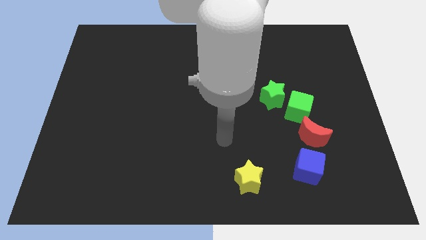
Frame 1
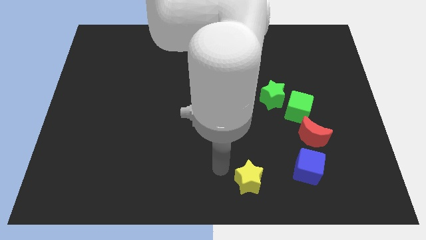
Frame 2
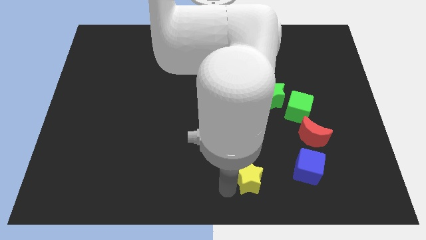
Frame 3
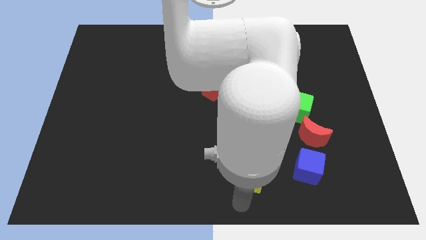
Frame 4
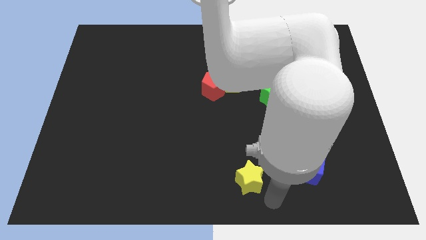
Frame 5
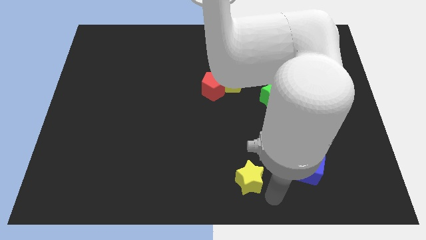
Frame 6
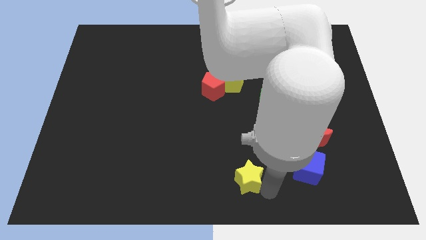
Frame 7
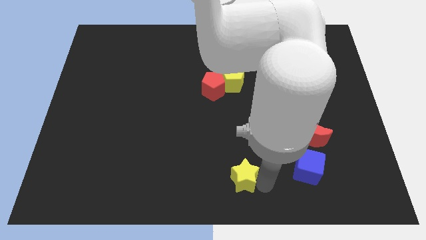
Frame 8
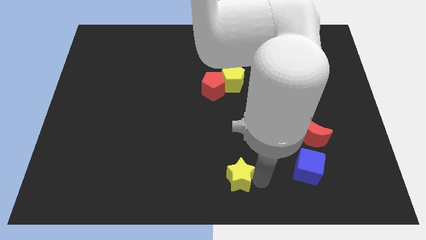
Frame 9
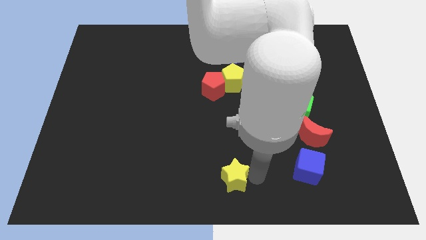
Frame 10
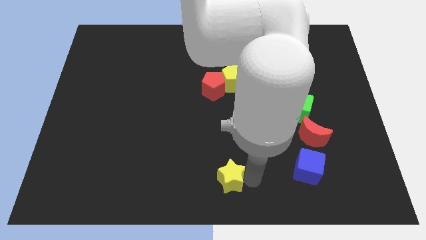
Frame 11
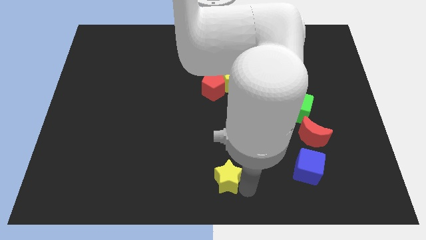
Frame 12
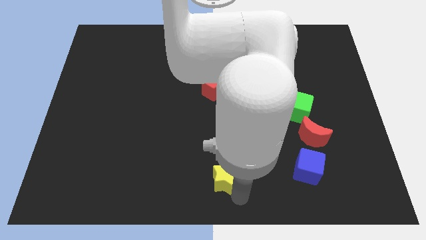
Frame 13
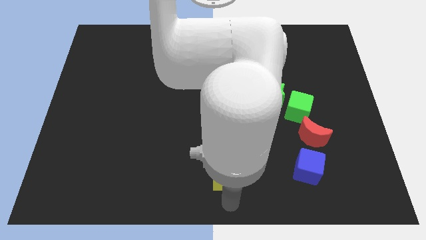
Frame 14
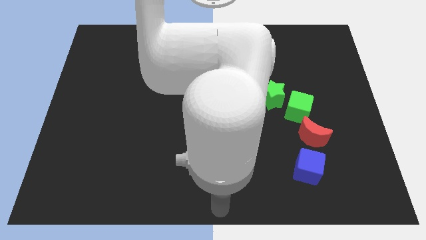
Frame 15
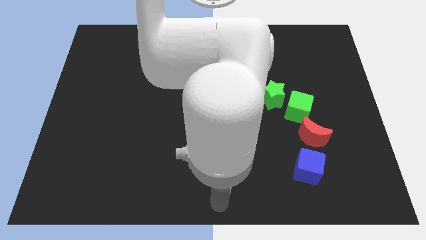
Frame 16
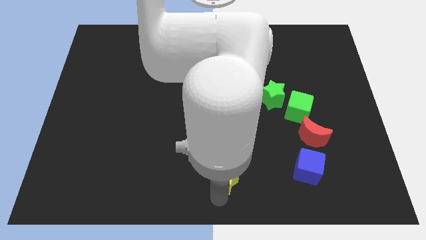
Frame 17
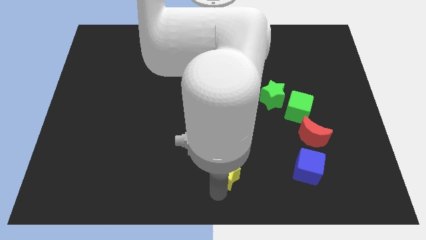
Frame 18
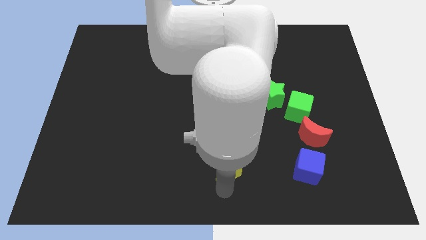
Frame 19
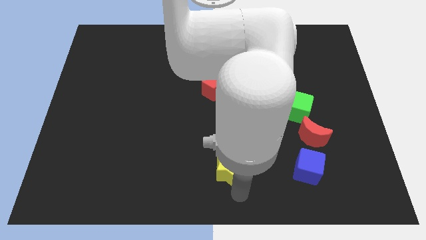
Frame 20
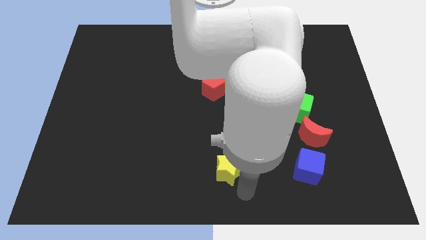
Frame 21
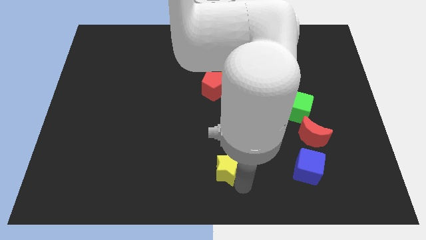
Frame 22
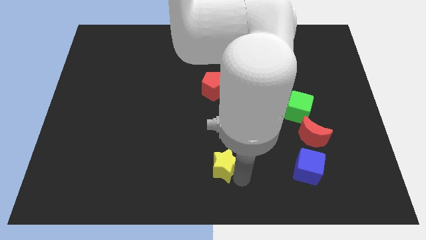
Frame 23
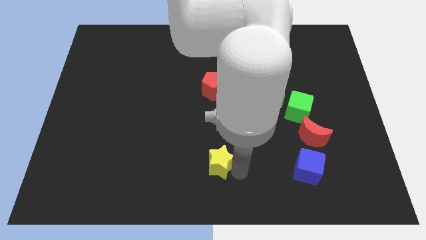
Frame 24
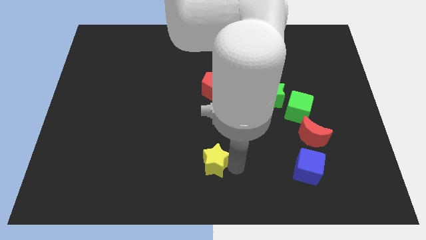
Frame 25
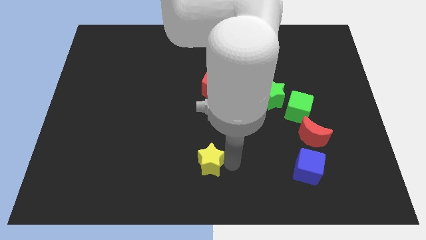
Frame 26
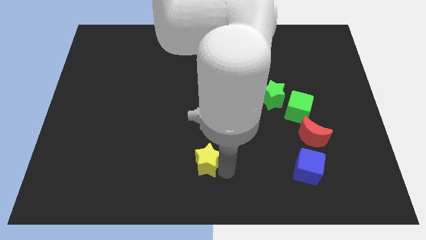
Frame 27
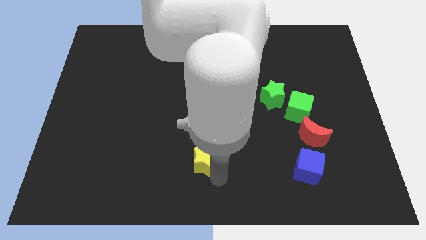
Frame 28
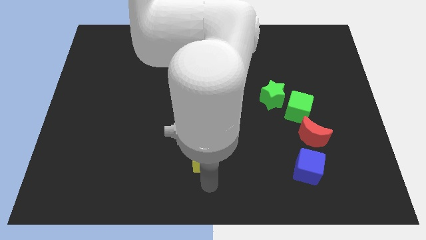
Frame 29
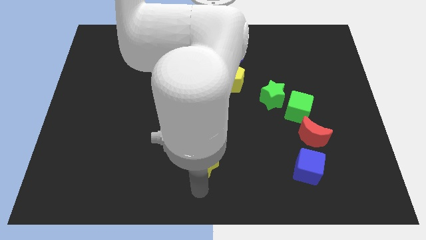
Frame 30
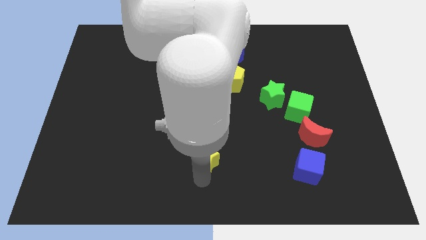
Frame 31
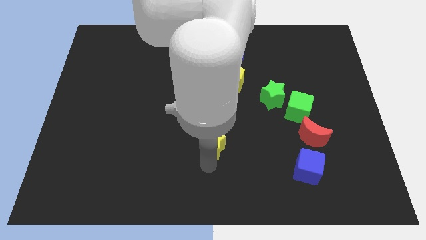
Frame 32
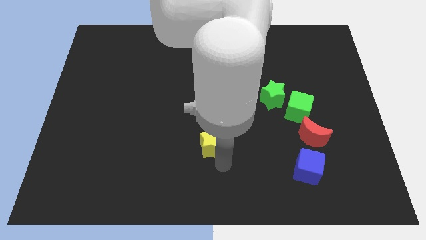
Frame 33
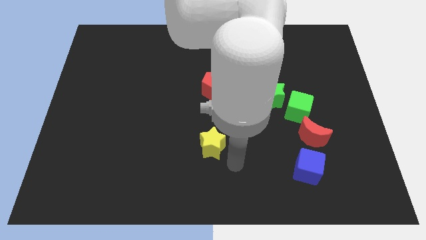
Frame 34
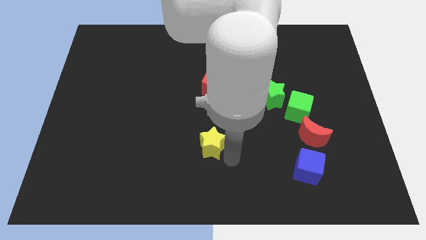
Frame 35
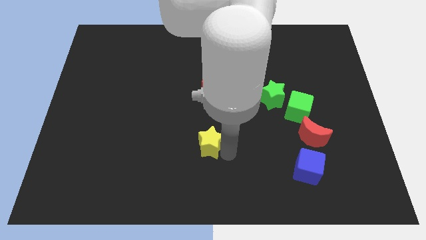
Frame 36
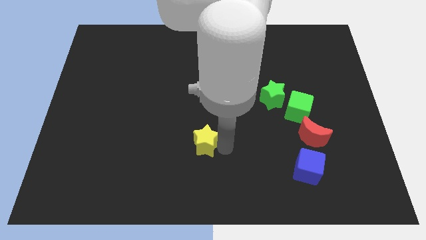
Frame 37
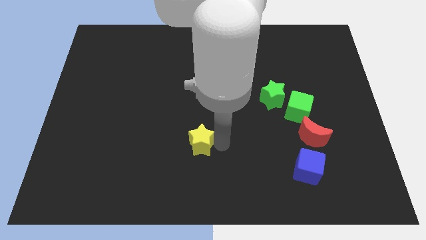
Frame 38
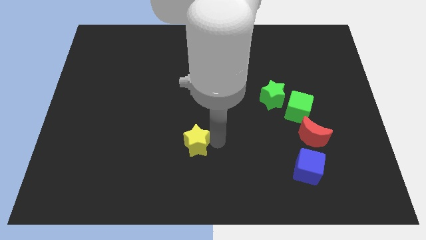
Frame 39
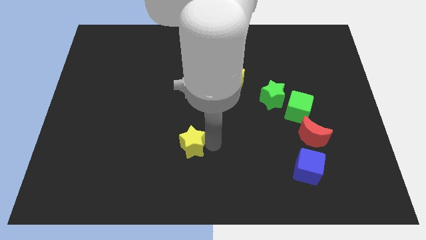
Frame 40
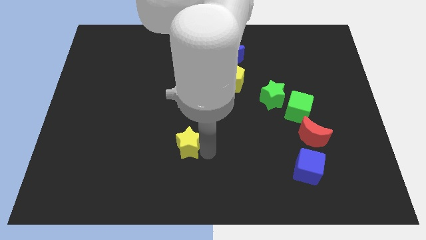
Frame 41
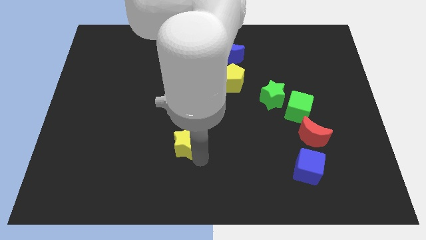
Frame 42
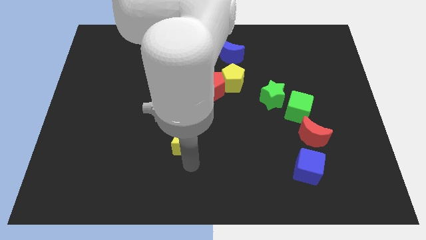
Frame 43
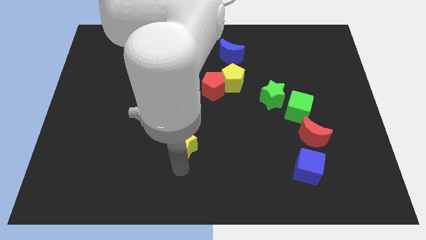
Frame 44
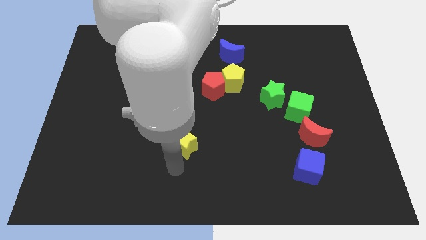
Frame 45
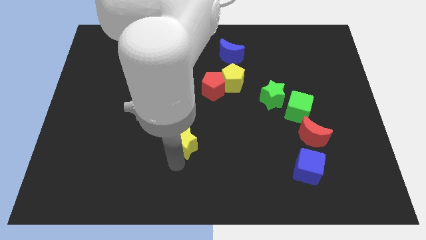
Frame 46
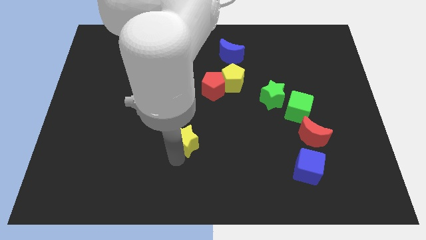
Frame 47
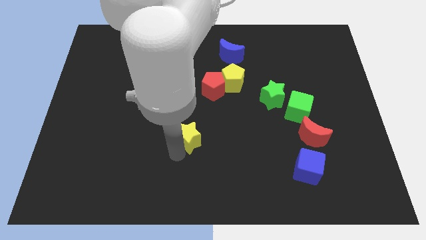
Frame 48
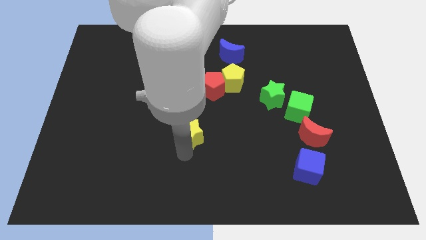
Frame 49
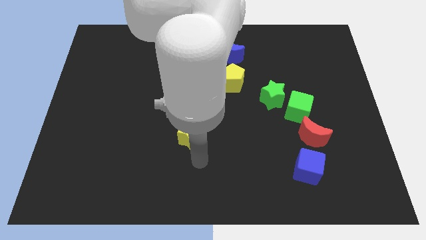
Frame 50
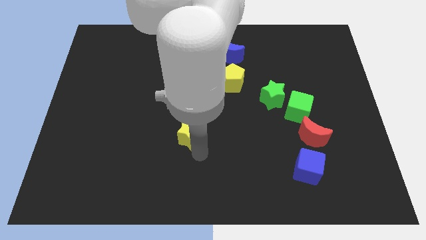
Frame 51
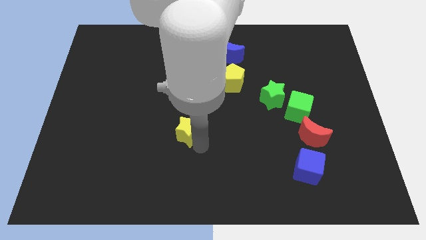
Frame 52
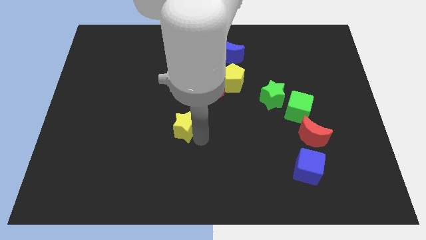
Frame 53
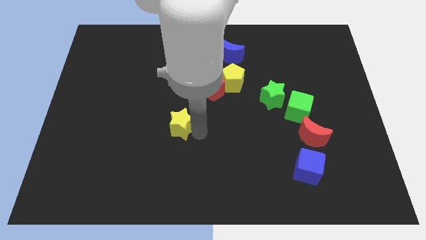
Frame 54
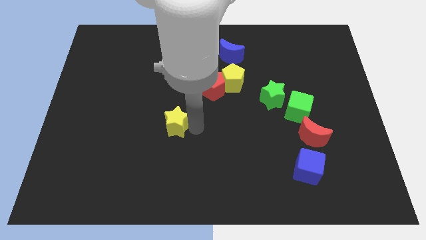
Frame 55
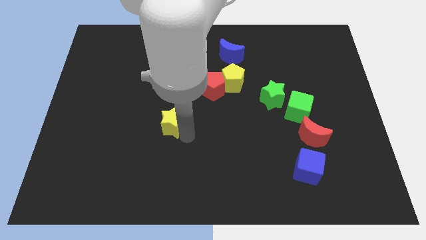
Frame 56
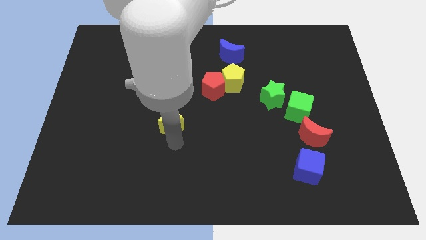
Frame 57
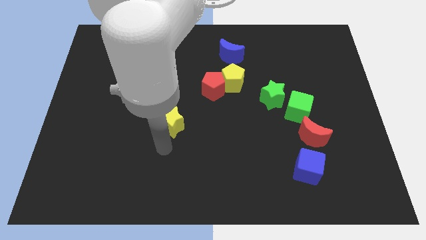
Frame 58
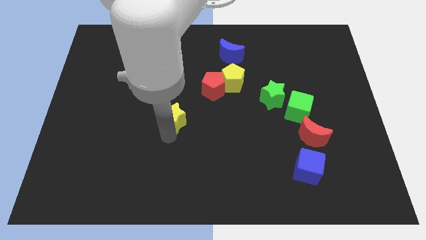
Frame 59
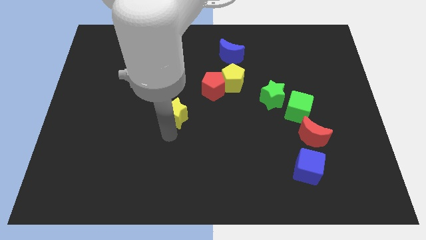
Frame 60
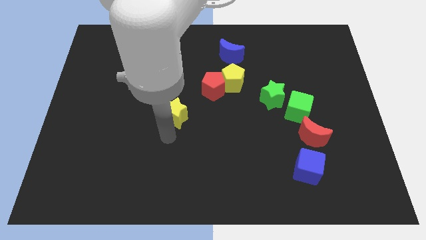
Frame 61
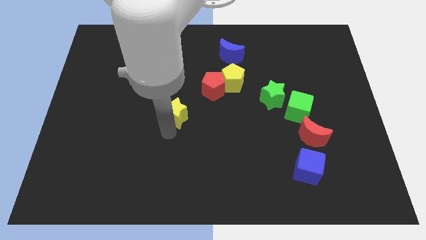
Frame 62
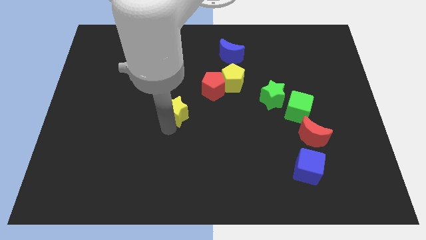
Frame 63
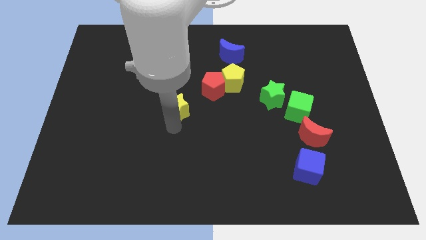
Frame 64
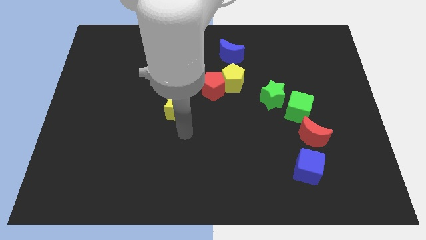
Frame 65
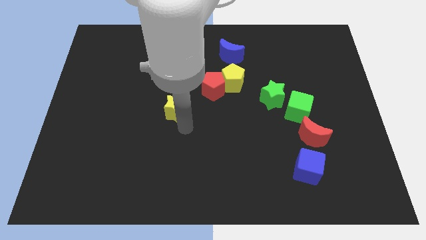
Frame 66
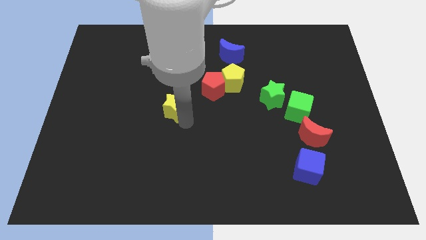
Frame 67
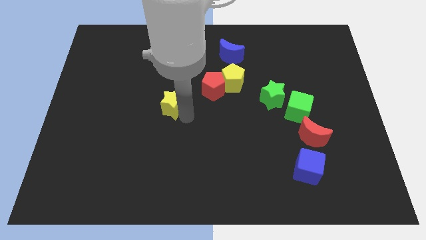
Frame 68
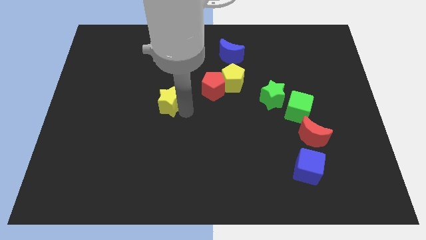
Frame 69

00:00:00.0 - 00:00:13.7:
slide the yellow star just left of the red pentagon

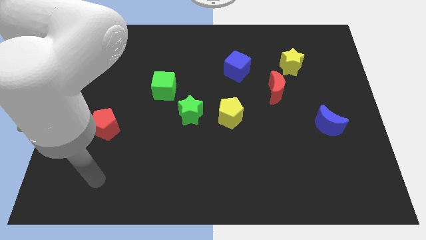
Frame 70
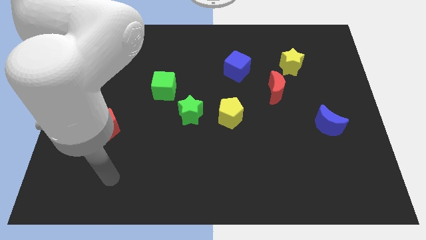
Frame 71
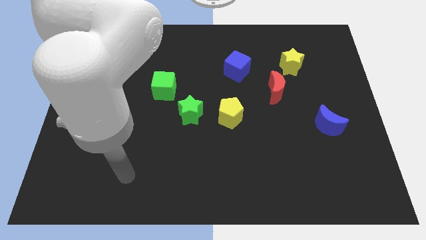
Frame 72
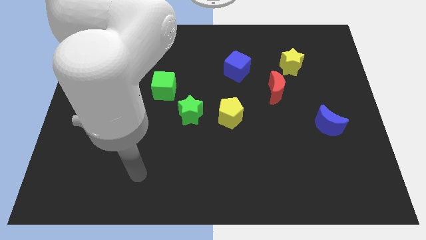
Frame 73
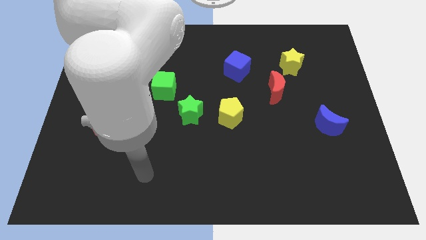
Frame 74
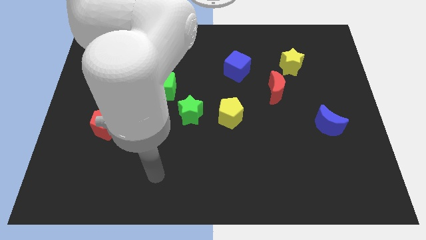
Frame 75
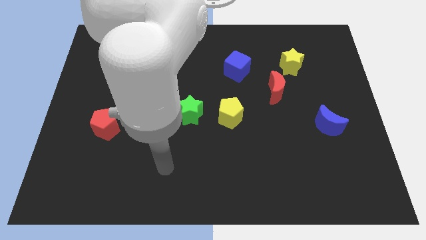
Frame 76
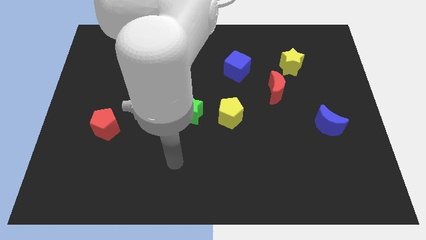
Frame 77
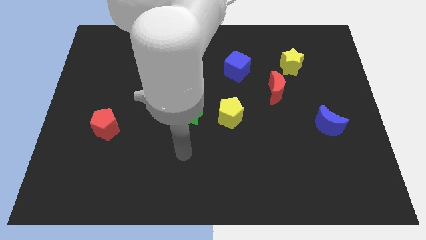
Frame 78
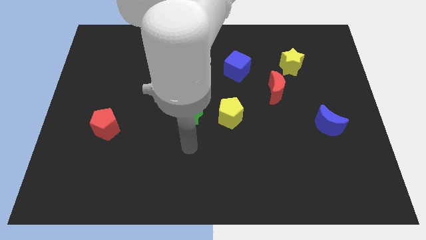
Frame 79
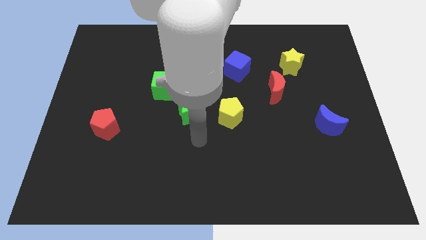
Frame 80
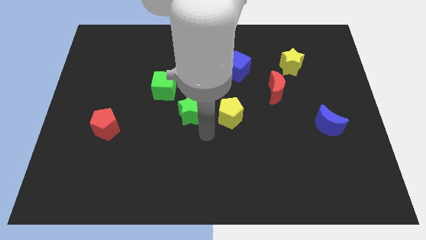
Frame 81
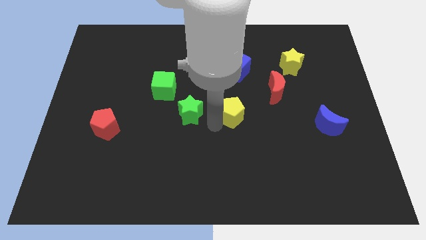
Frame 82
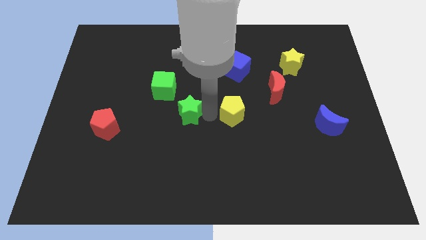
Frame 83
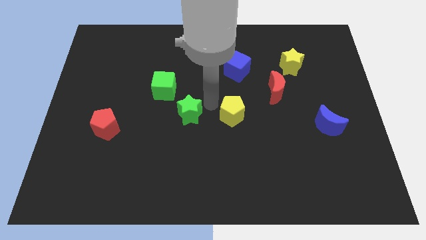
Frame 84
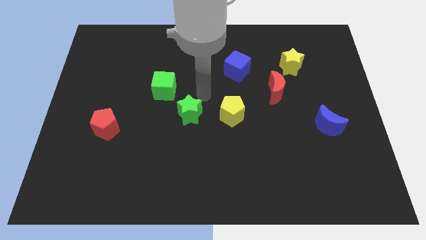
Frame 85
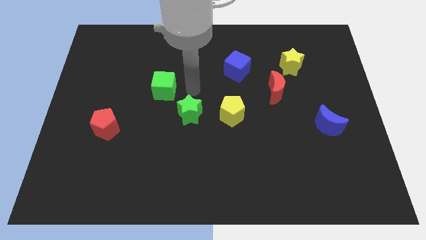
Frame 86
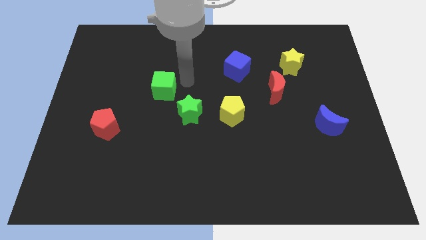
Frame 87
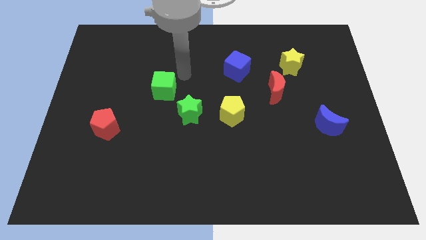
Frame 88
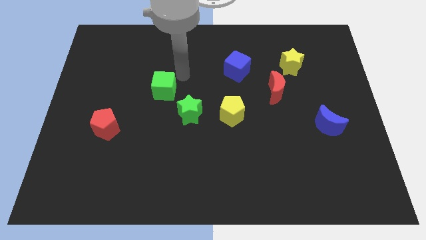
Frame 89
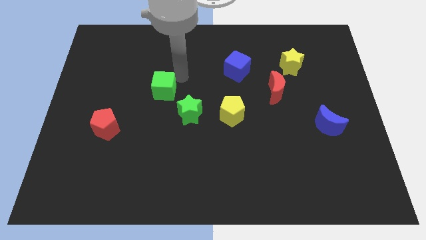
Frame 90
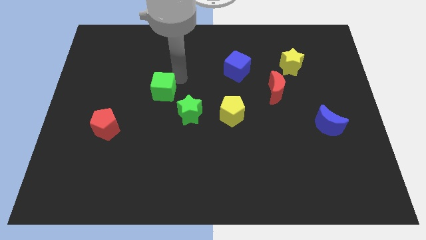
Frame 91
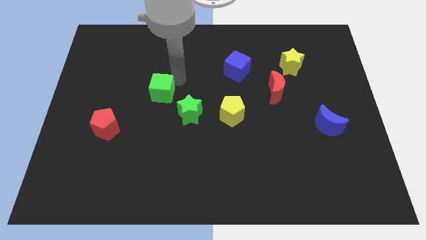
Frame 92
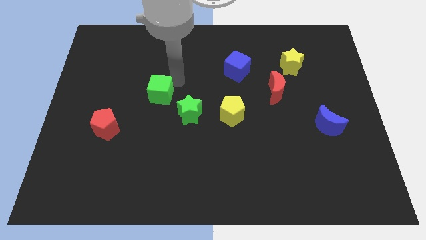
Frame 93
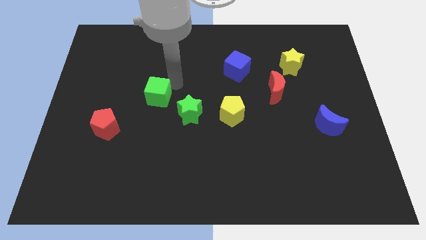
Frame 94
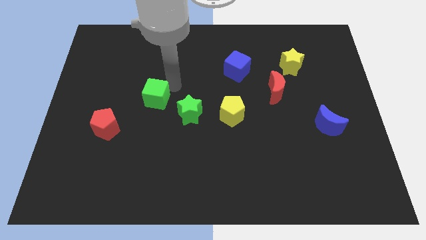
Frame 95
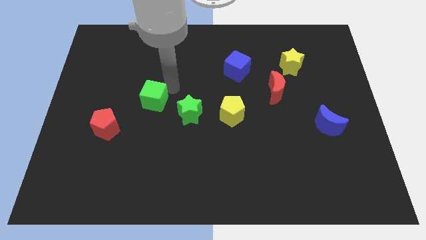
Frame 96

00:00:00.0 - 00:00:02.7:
put the green cube diagonally up and to the right of the red pentagon
